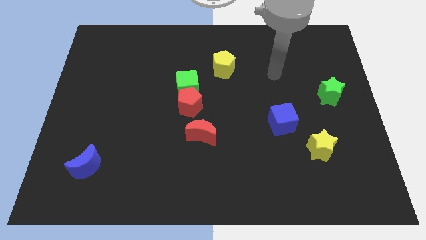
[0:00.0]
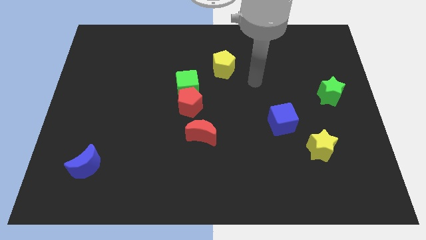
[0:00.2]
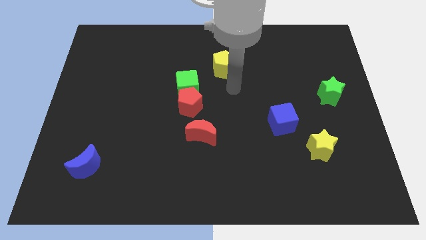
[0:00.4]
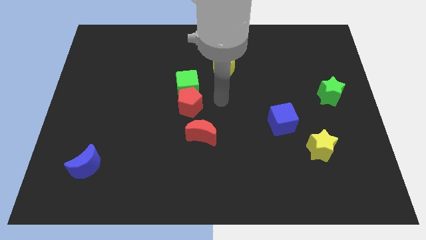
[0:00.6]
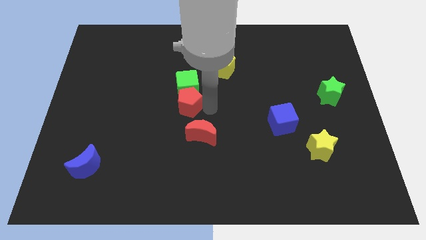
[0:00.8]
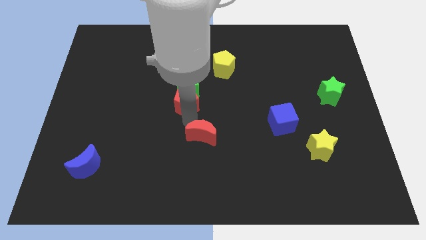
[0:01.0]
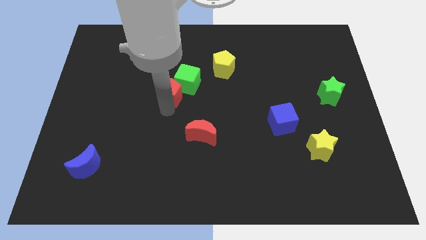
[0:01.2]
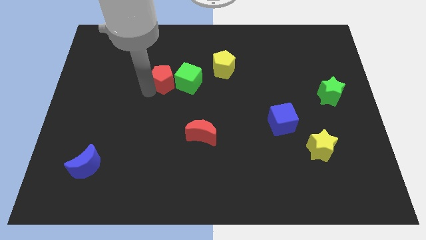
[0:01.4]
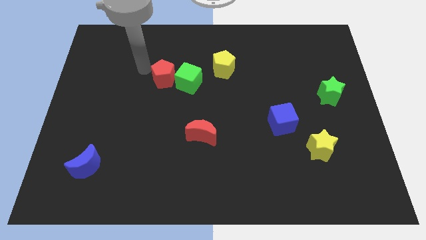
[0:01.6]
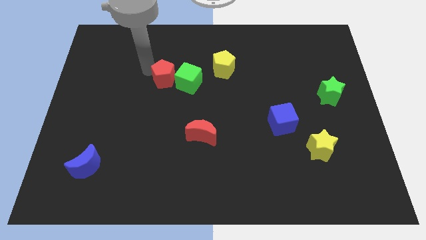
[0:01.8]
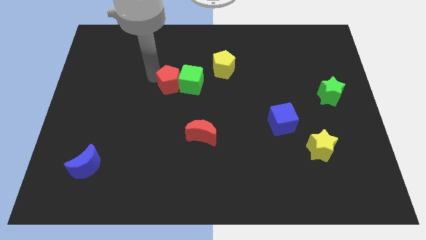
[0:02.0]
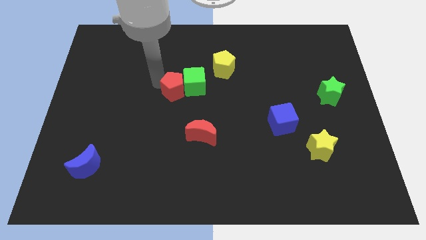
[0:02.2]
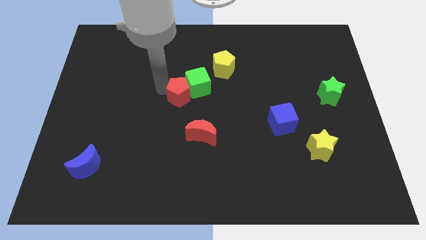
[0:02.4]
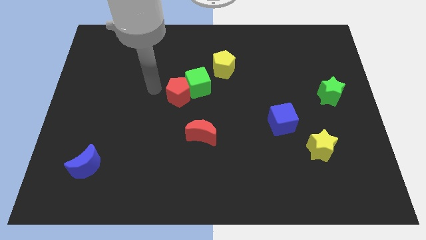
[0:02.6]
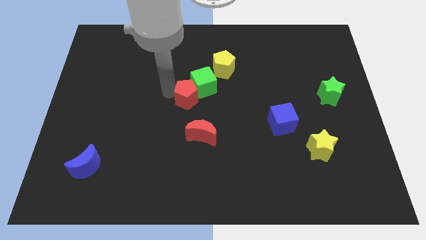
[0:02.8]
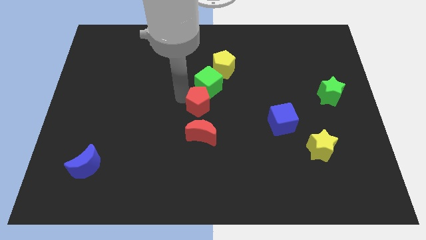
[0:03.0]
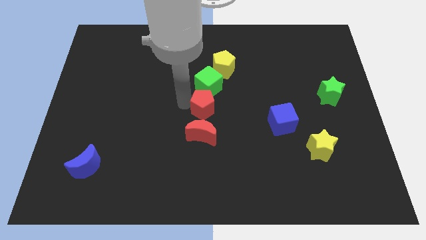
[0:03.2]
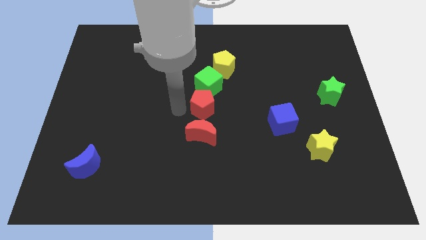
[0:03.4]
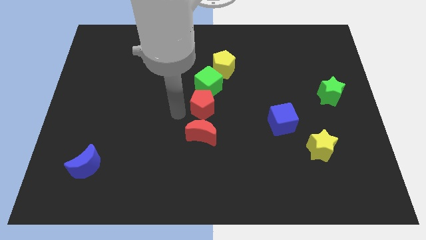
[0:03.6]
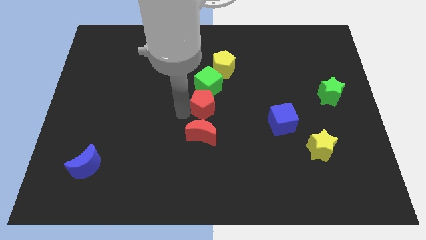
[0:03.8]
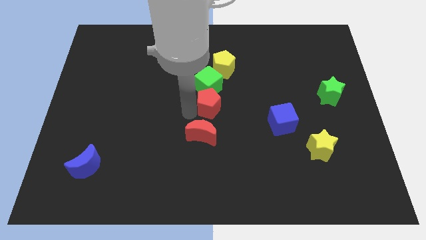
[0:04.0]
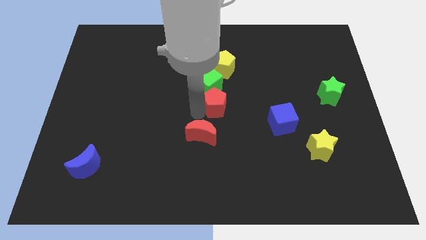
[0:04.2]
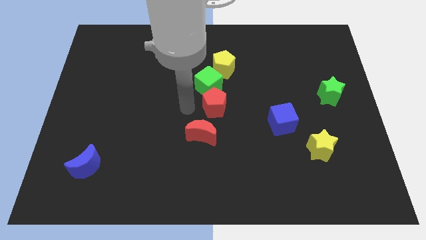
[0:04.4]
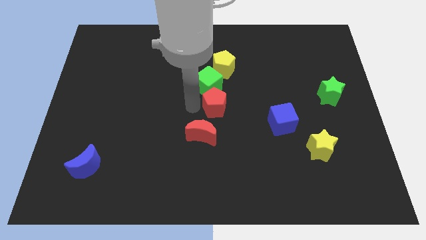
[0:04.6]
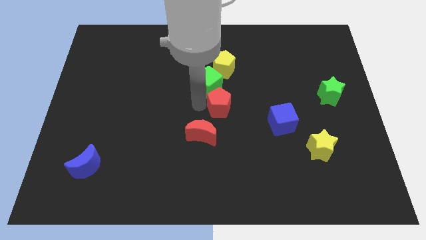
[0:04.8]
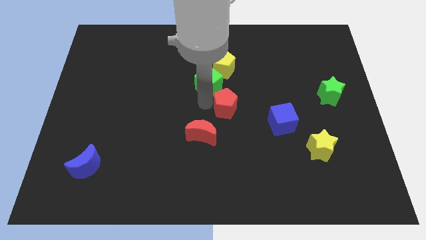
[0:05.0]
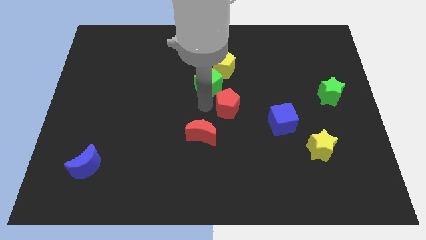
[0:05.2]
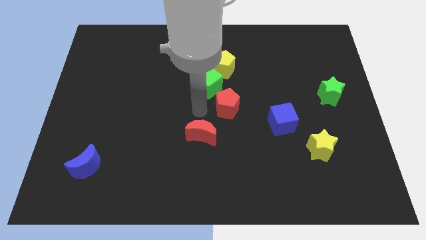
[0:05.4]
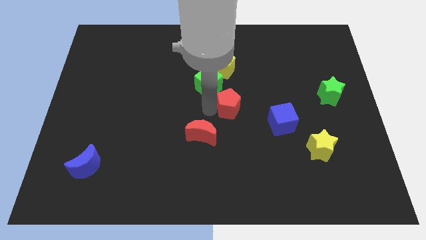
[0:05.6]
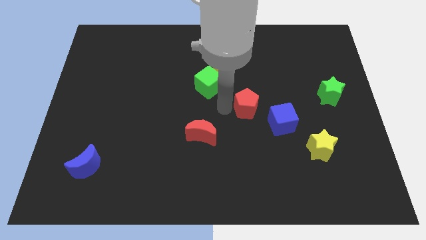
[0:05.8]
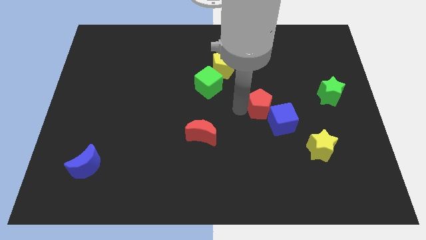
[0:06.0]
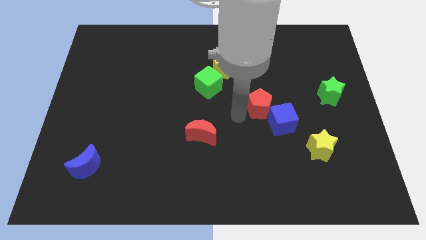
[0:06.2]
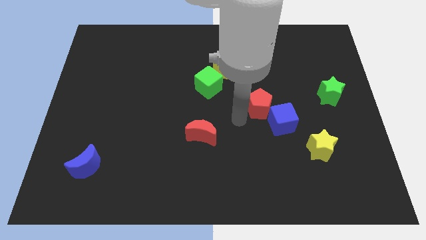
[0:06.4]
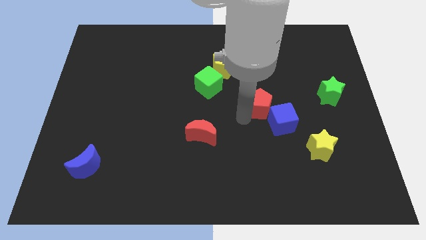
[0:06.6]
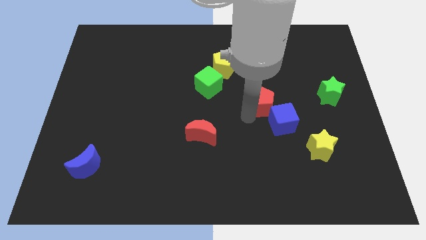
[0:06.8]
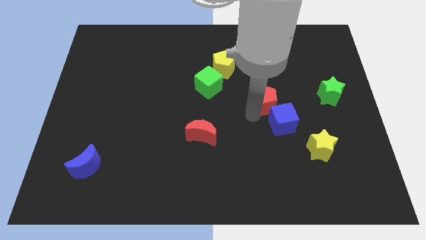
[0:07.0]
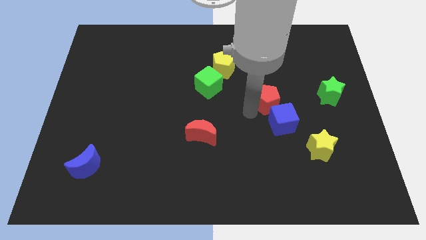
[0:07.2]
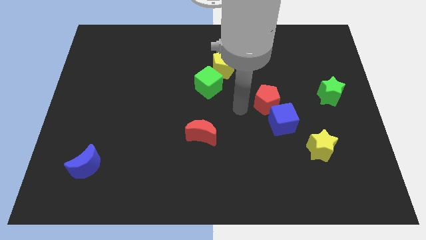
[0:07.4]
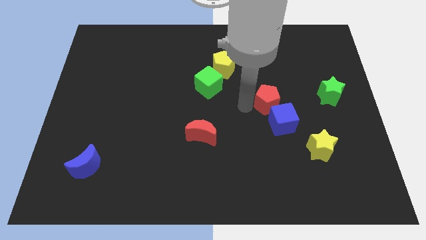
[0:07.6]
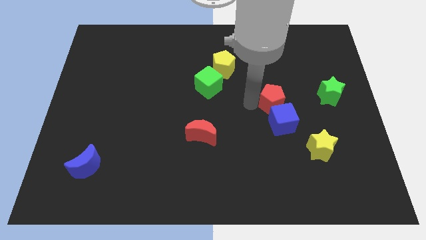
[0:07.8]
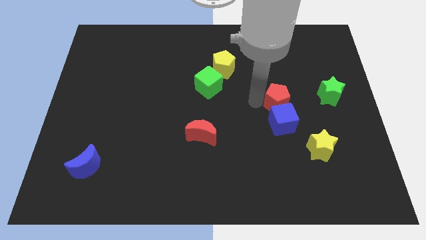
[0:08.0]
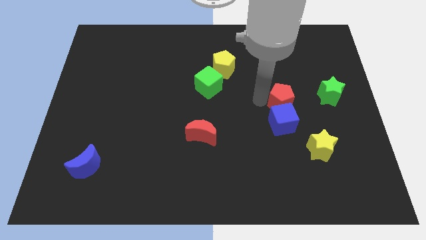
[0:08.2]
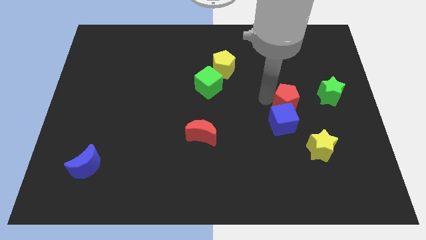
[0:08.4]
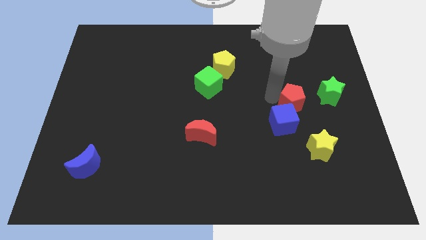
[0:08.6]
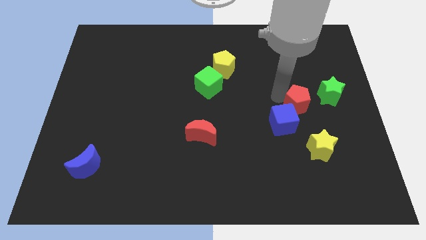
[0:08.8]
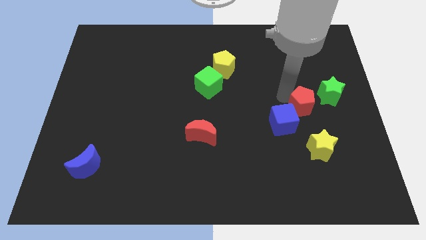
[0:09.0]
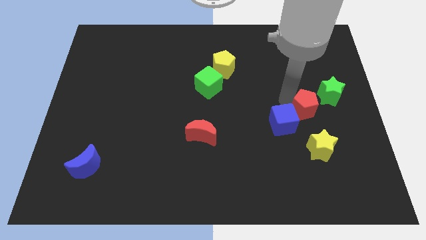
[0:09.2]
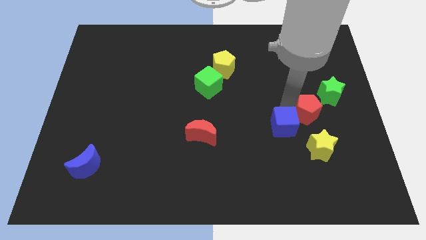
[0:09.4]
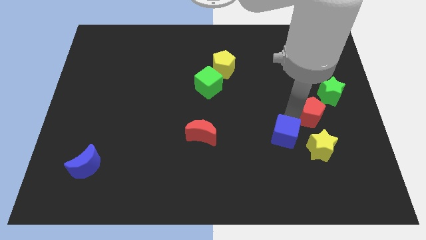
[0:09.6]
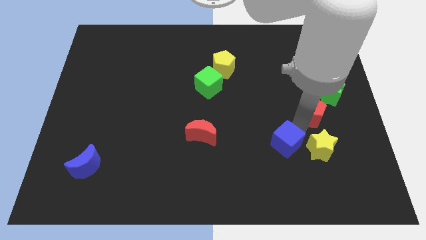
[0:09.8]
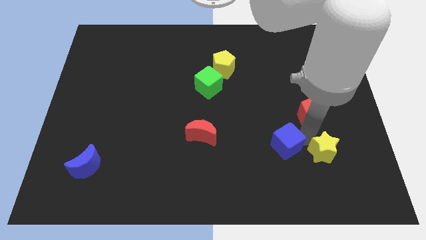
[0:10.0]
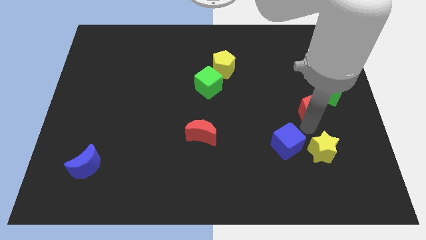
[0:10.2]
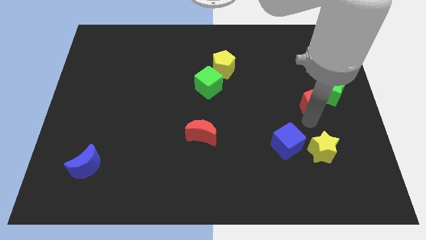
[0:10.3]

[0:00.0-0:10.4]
push the red pentagon to the green star

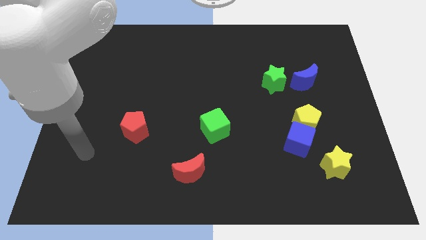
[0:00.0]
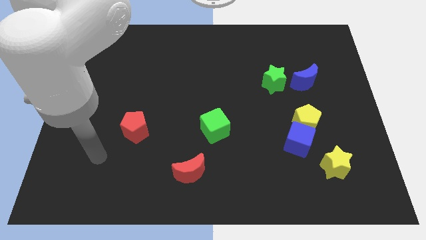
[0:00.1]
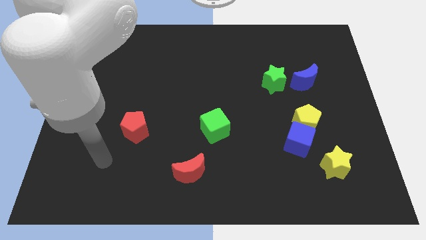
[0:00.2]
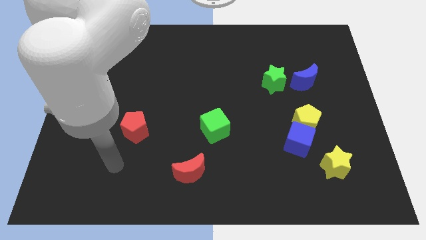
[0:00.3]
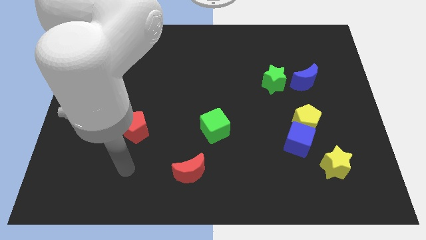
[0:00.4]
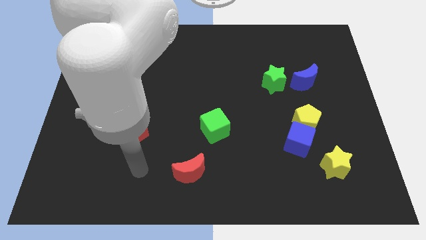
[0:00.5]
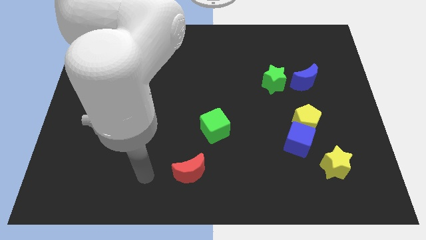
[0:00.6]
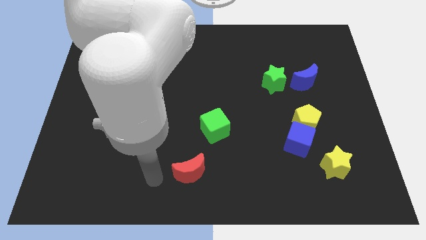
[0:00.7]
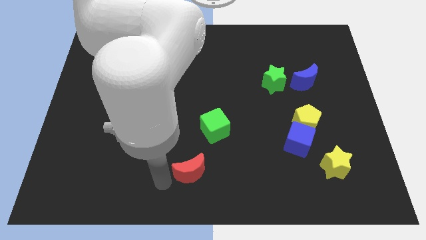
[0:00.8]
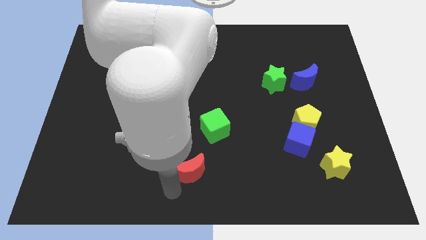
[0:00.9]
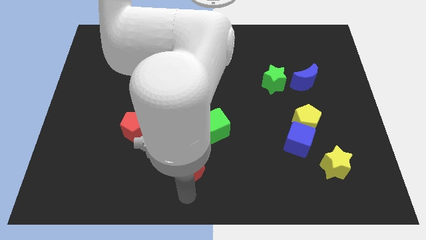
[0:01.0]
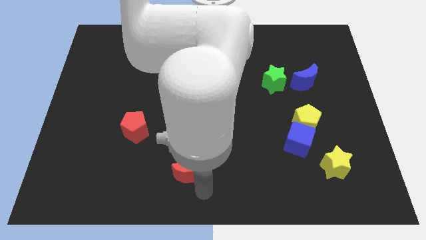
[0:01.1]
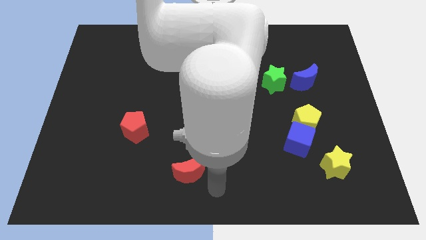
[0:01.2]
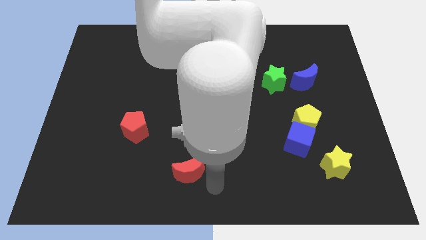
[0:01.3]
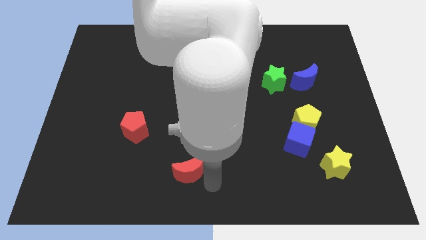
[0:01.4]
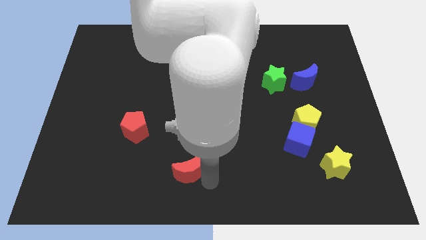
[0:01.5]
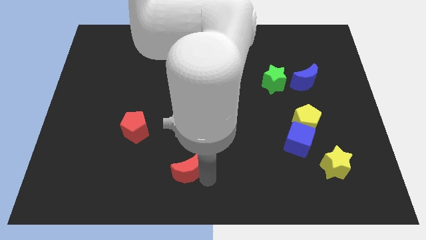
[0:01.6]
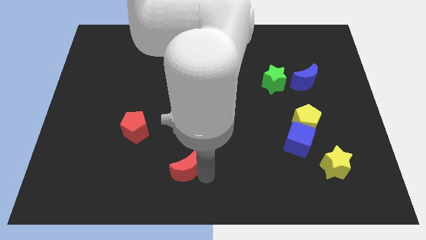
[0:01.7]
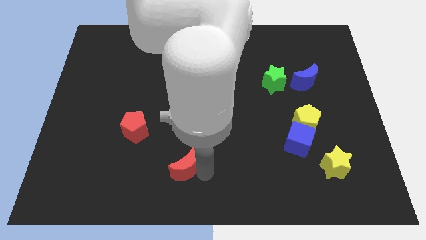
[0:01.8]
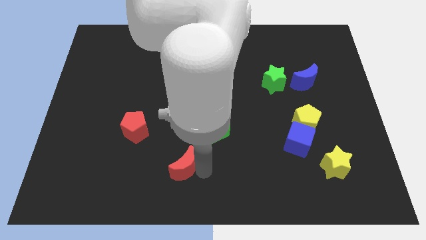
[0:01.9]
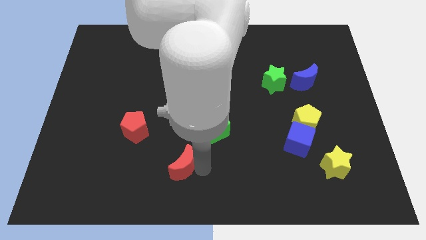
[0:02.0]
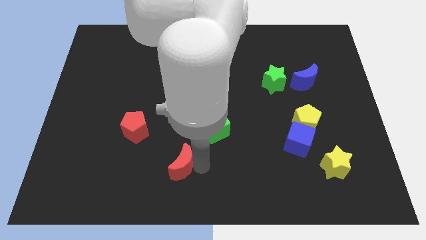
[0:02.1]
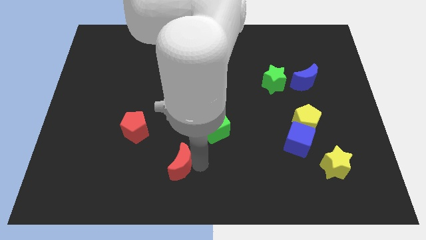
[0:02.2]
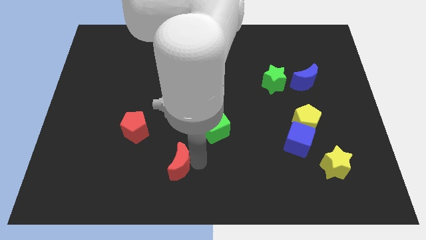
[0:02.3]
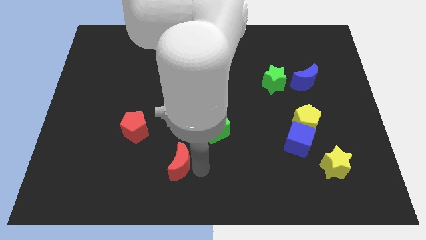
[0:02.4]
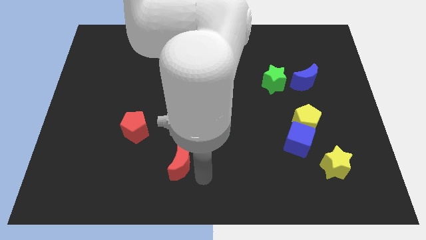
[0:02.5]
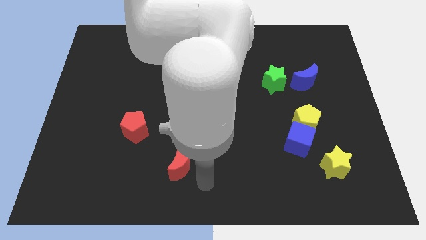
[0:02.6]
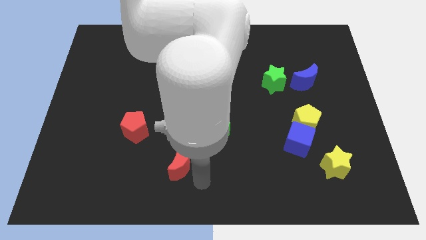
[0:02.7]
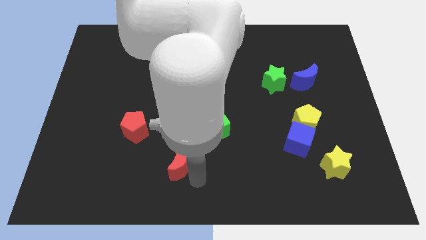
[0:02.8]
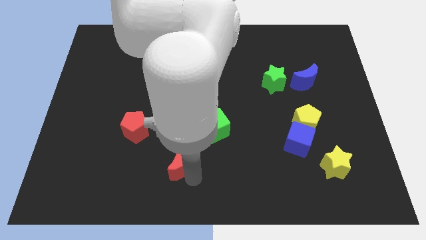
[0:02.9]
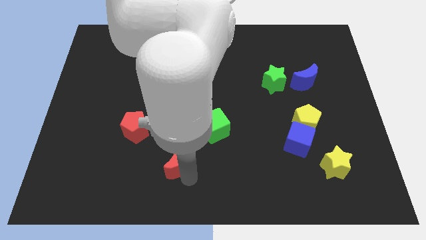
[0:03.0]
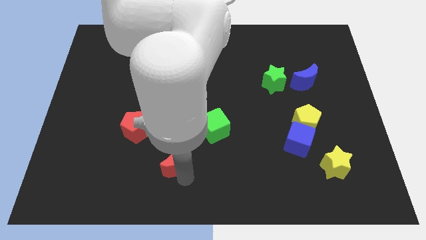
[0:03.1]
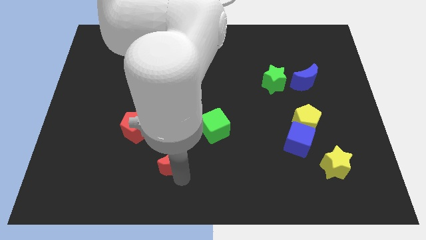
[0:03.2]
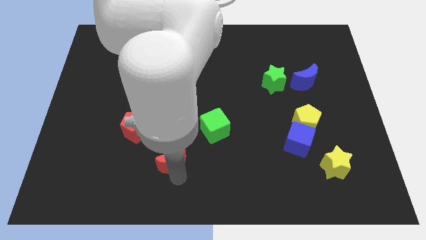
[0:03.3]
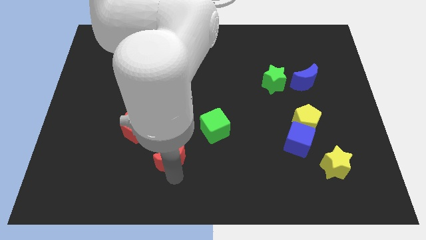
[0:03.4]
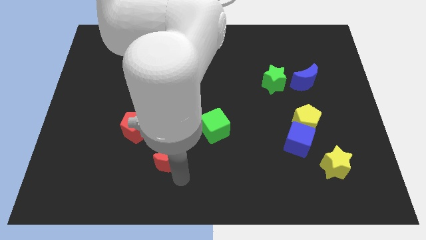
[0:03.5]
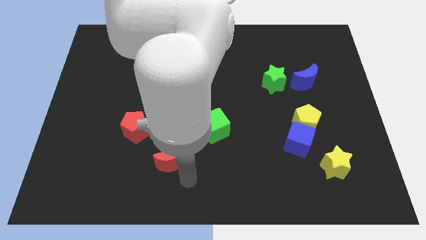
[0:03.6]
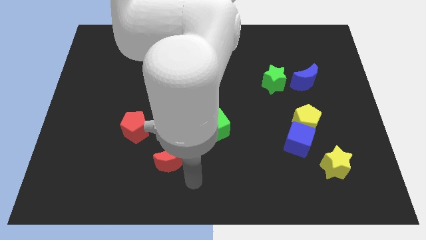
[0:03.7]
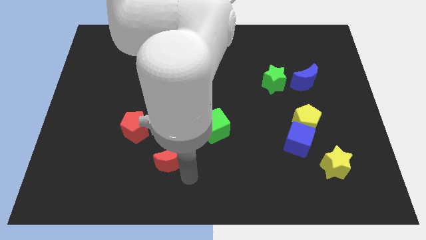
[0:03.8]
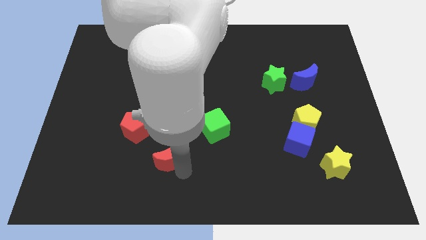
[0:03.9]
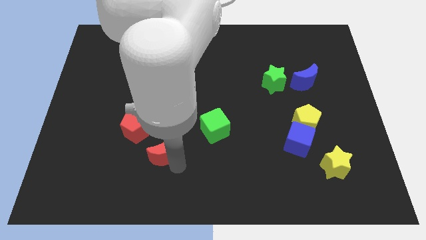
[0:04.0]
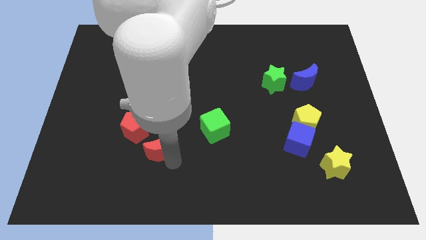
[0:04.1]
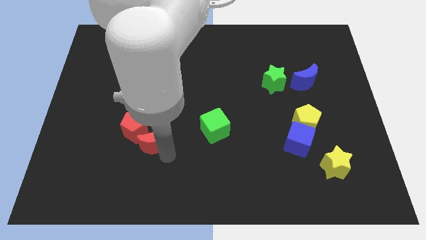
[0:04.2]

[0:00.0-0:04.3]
put the red moon to the red pentagon
